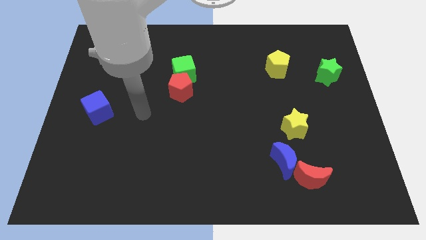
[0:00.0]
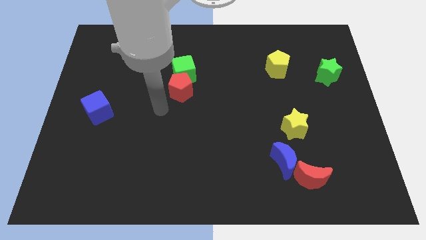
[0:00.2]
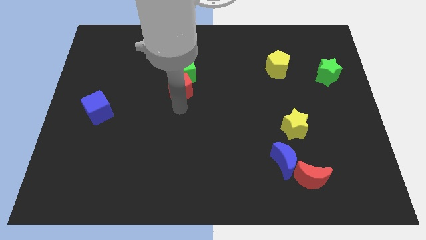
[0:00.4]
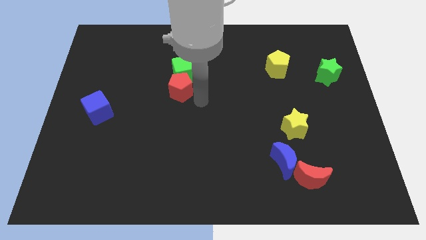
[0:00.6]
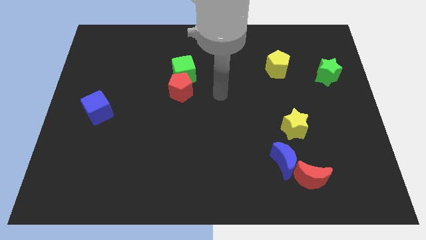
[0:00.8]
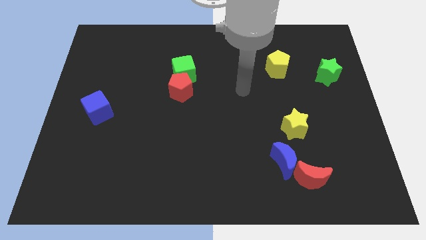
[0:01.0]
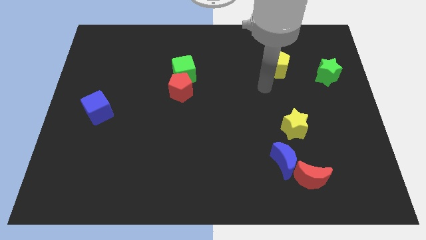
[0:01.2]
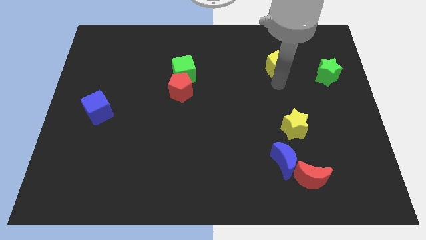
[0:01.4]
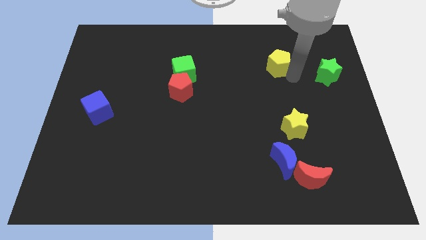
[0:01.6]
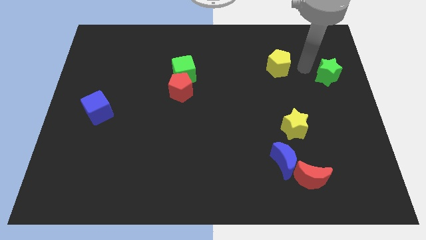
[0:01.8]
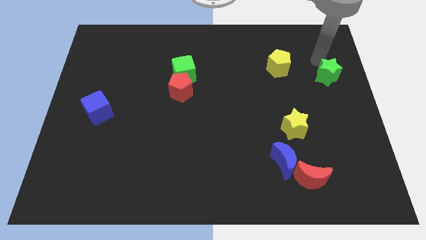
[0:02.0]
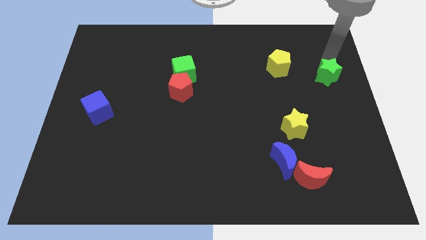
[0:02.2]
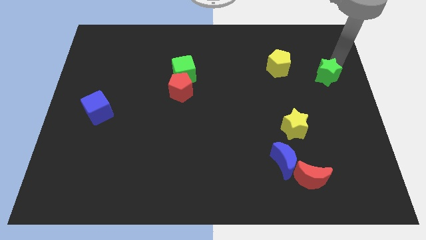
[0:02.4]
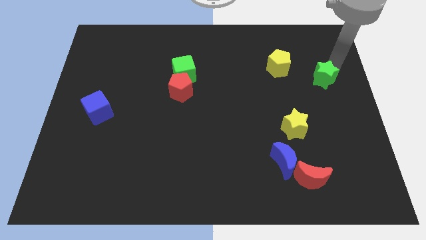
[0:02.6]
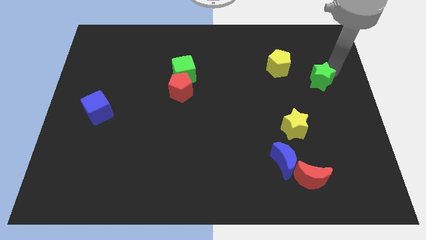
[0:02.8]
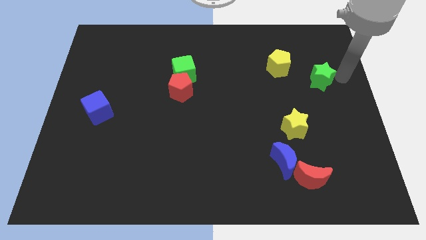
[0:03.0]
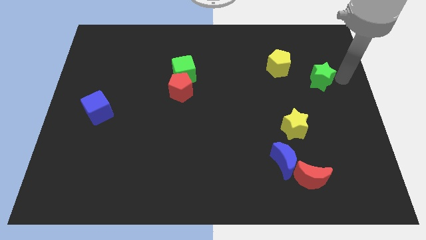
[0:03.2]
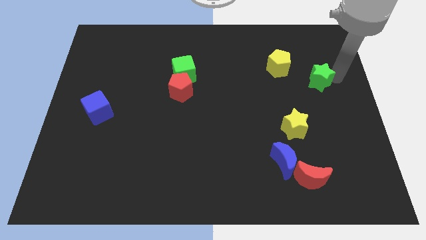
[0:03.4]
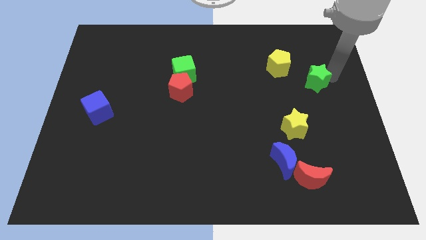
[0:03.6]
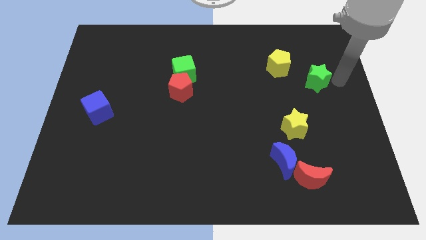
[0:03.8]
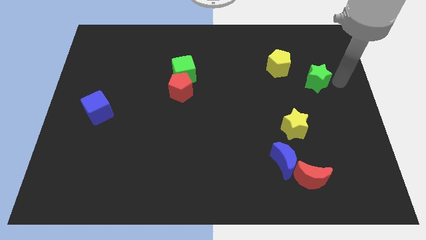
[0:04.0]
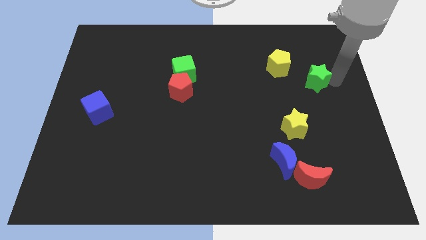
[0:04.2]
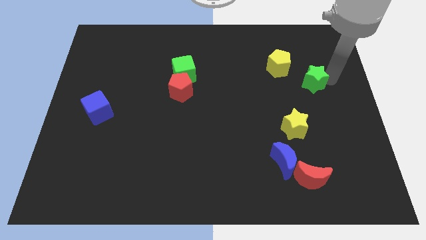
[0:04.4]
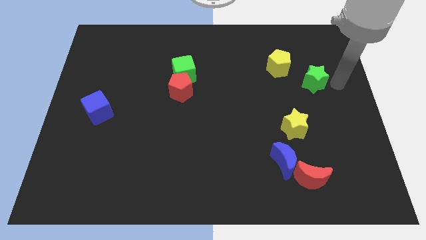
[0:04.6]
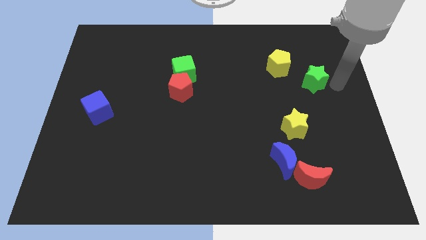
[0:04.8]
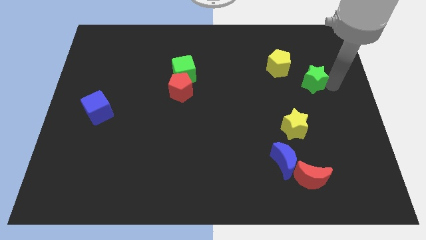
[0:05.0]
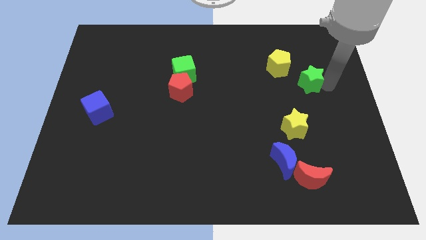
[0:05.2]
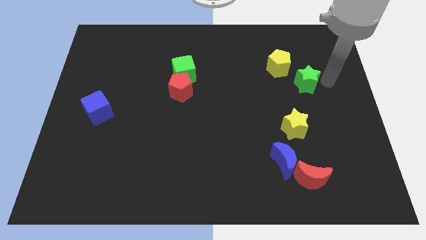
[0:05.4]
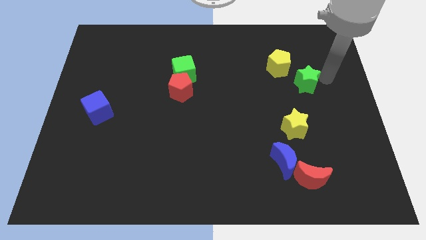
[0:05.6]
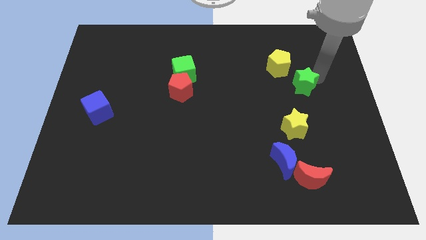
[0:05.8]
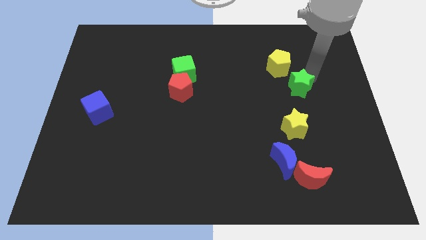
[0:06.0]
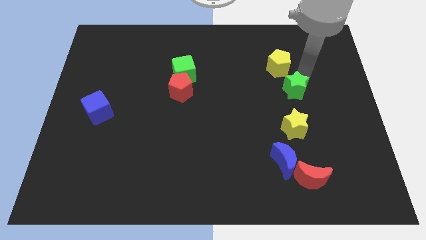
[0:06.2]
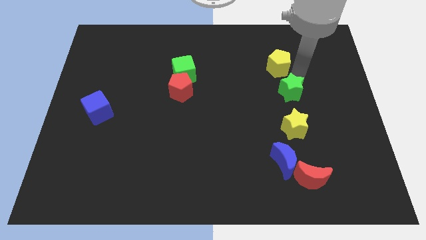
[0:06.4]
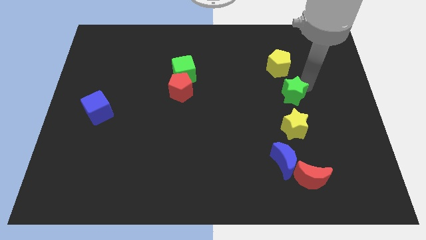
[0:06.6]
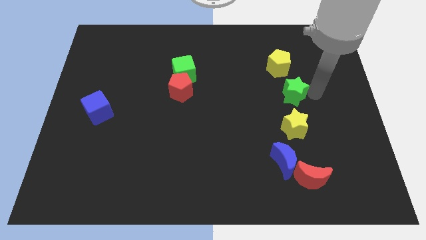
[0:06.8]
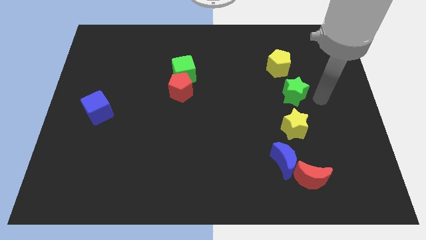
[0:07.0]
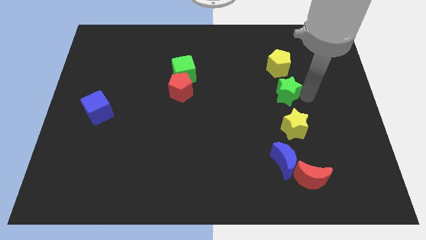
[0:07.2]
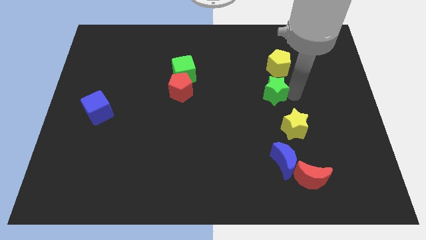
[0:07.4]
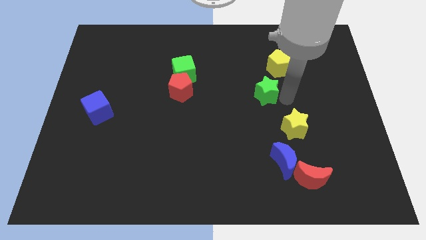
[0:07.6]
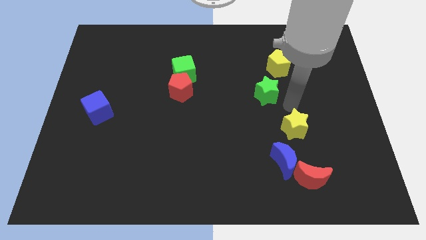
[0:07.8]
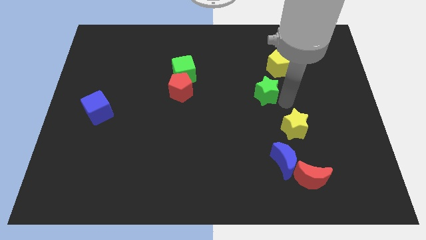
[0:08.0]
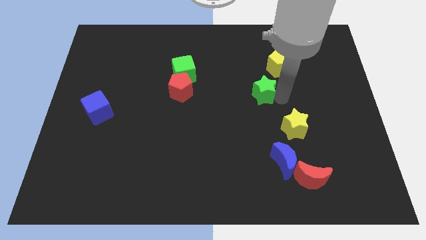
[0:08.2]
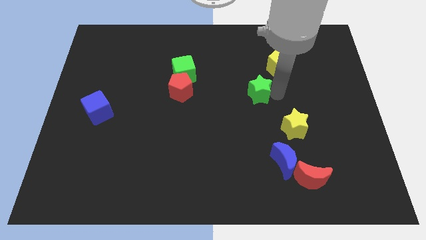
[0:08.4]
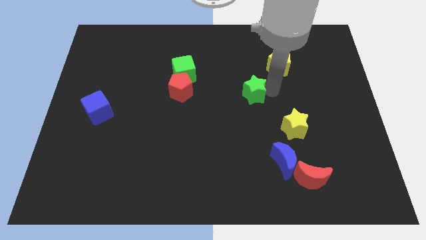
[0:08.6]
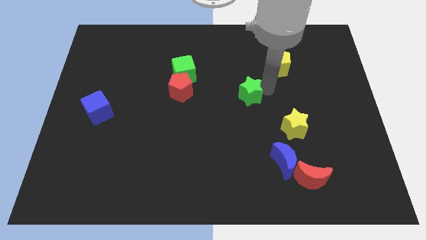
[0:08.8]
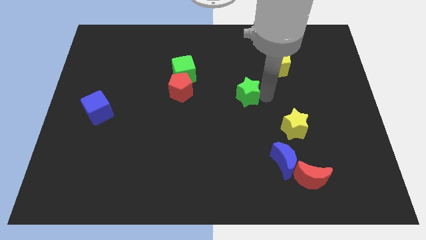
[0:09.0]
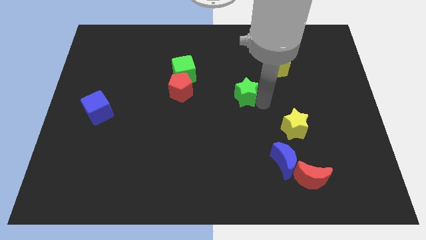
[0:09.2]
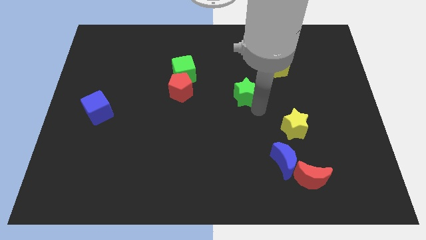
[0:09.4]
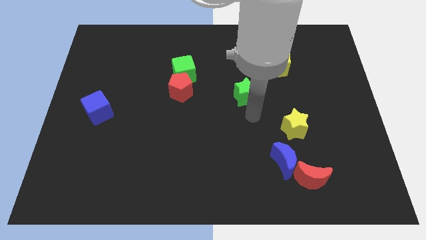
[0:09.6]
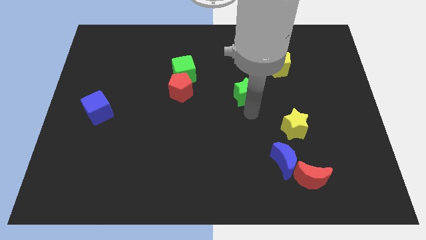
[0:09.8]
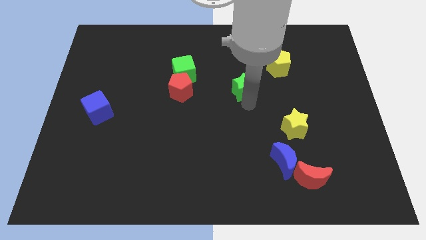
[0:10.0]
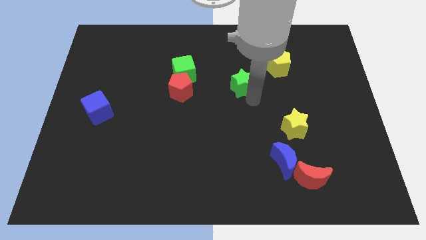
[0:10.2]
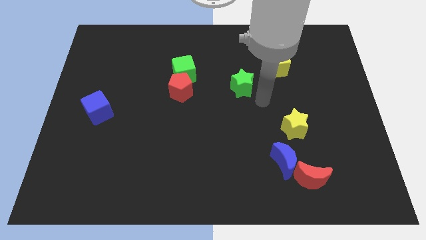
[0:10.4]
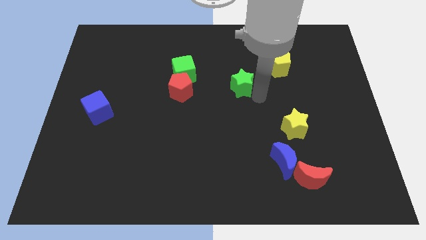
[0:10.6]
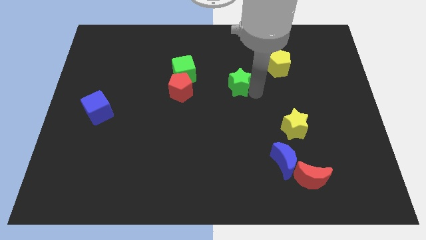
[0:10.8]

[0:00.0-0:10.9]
put the green star to the right of the green cube

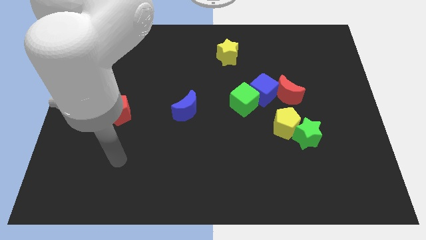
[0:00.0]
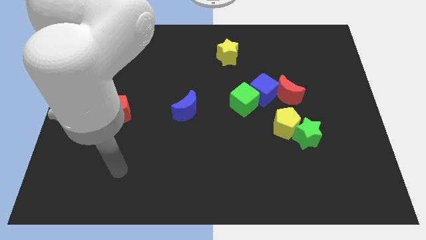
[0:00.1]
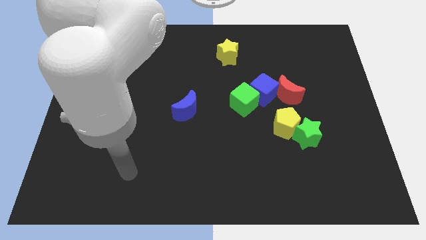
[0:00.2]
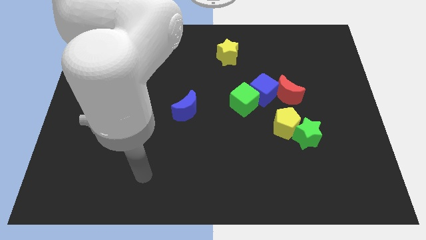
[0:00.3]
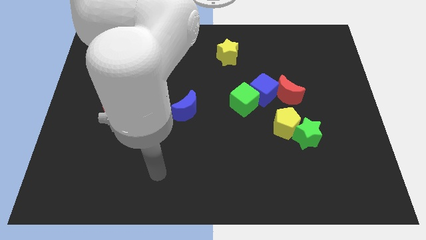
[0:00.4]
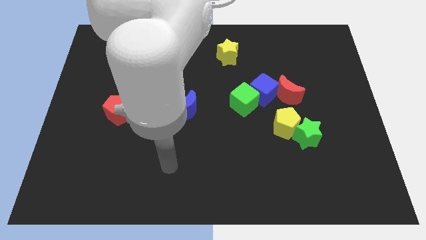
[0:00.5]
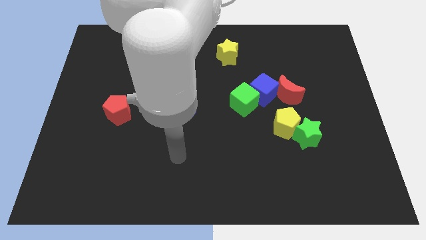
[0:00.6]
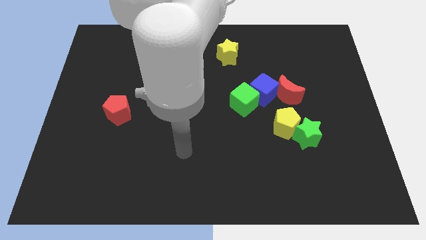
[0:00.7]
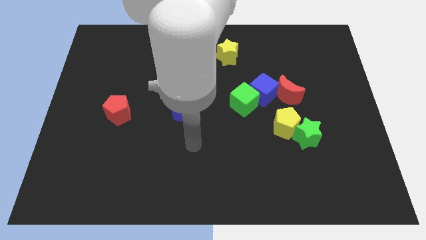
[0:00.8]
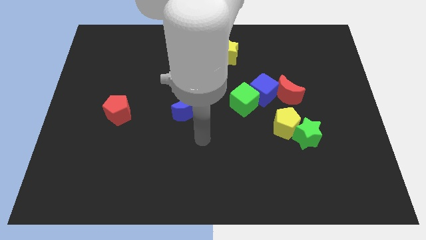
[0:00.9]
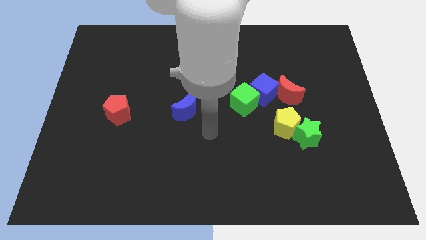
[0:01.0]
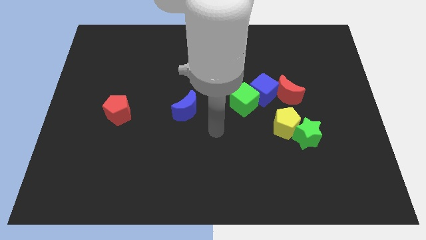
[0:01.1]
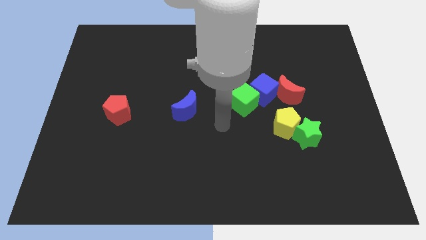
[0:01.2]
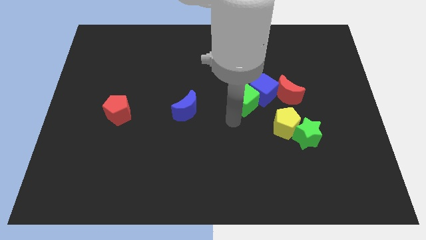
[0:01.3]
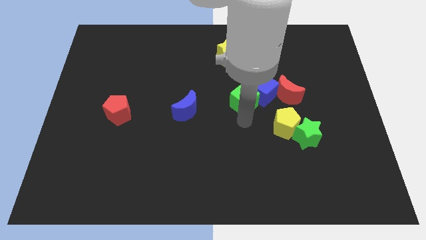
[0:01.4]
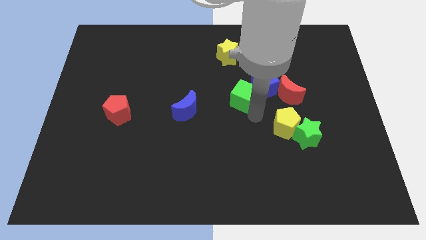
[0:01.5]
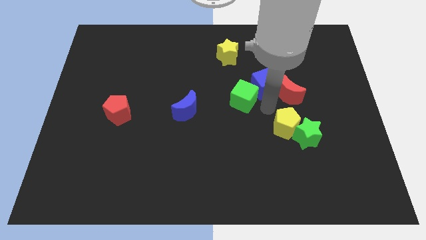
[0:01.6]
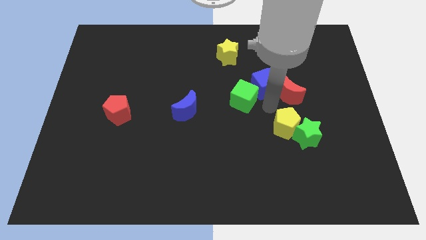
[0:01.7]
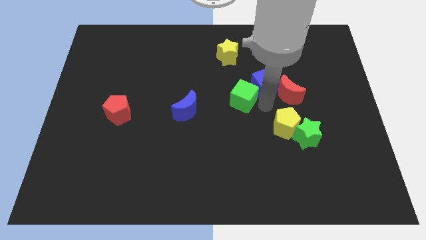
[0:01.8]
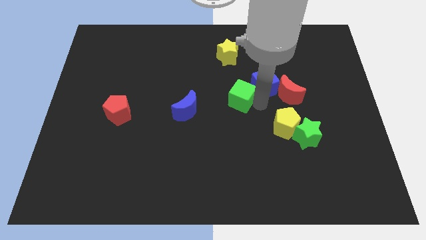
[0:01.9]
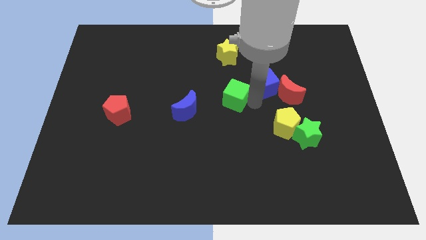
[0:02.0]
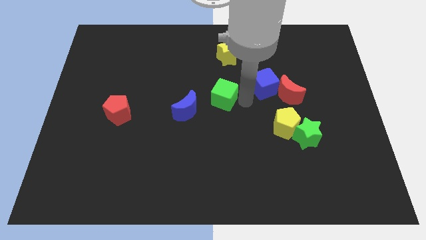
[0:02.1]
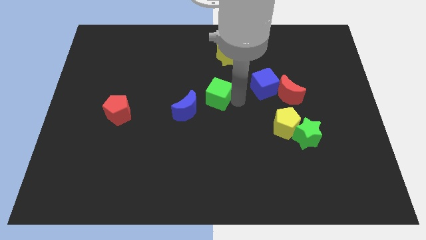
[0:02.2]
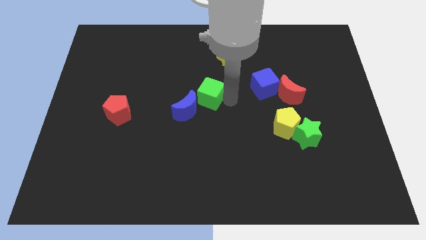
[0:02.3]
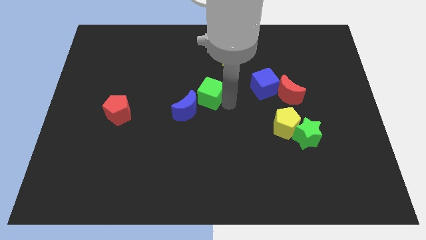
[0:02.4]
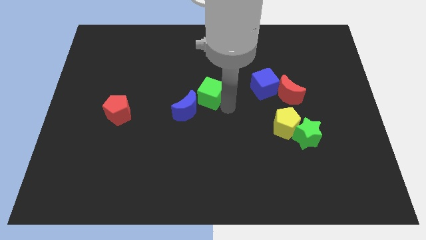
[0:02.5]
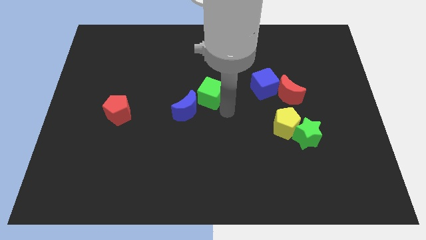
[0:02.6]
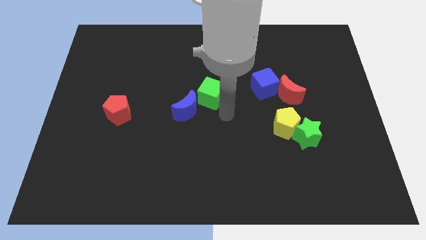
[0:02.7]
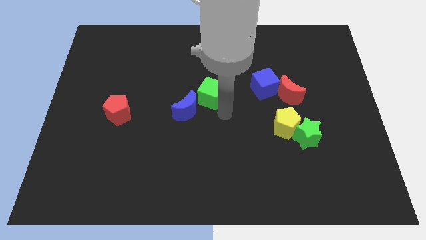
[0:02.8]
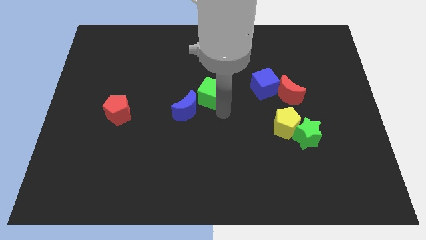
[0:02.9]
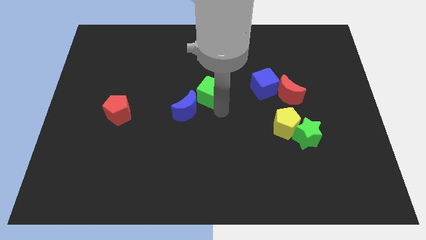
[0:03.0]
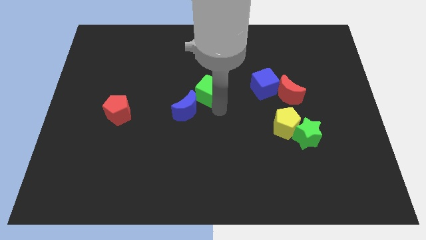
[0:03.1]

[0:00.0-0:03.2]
move the green cube to the top side of the blue moon
